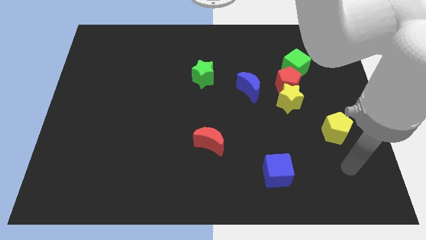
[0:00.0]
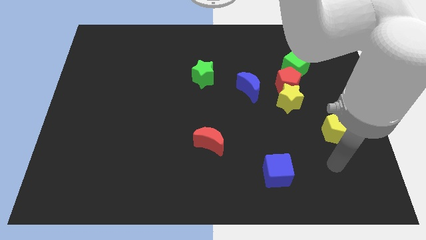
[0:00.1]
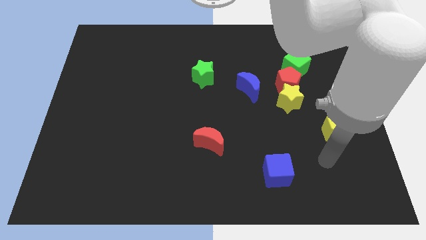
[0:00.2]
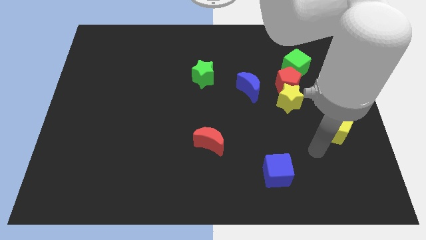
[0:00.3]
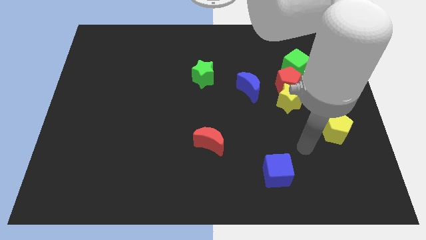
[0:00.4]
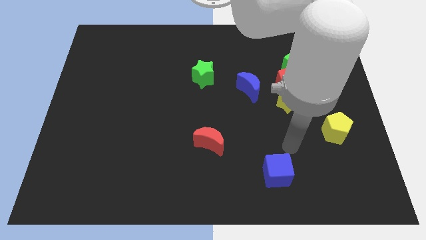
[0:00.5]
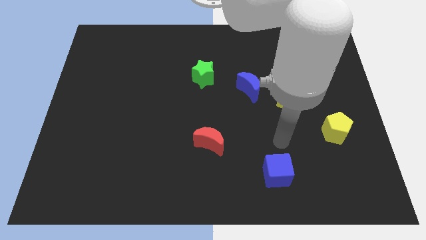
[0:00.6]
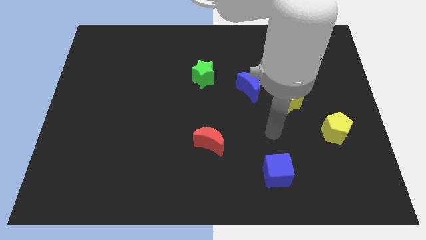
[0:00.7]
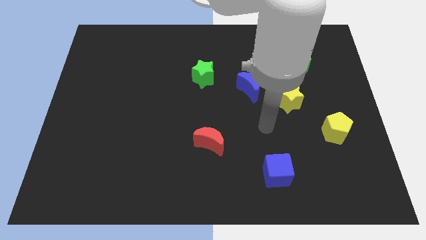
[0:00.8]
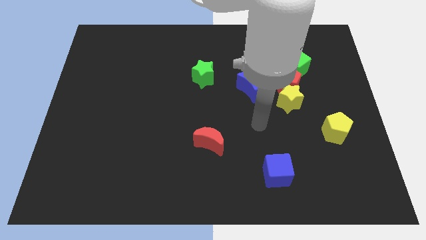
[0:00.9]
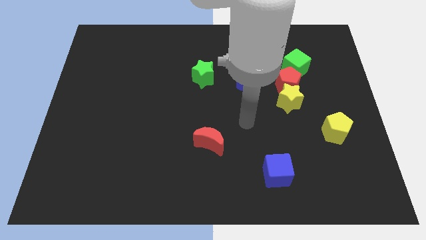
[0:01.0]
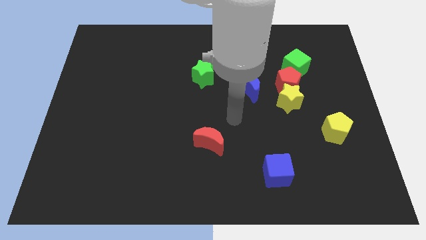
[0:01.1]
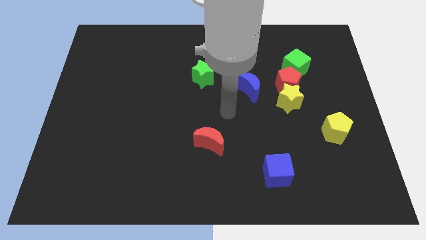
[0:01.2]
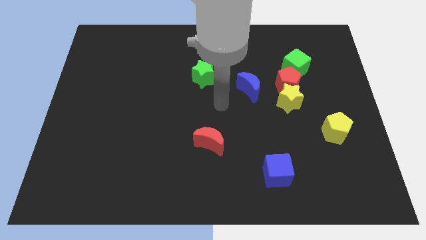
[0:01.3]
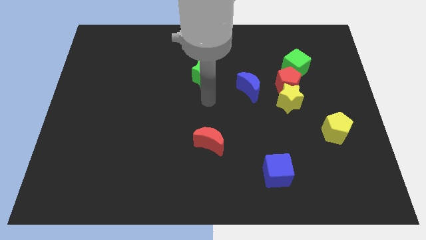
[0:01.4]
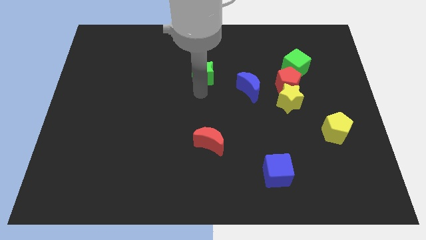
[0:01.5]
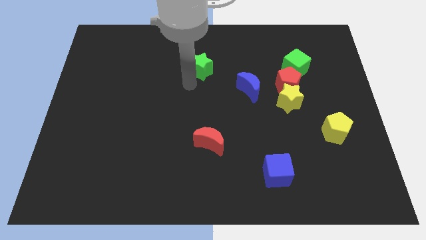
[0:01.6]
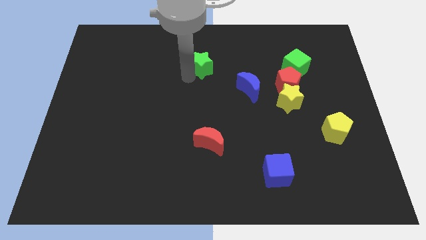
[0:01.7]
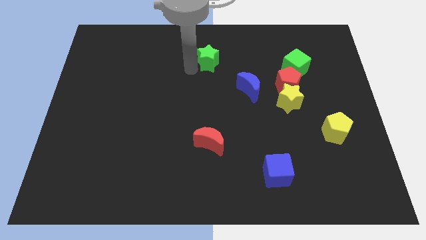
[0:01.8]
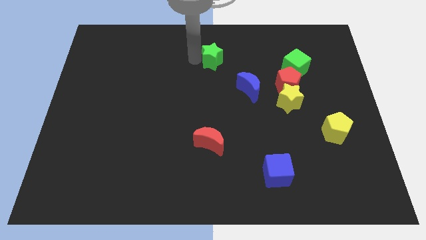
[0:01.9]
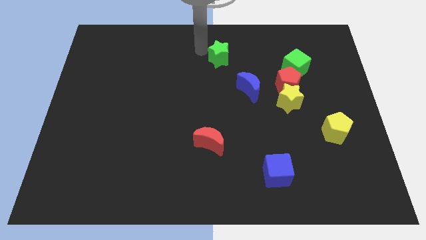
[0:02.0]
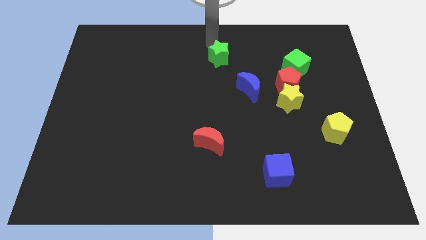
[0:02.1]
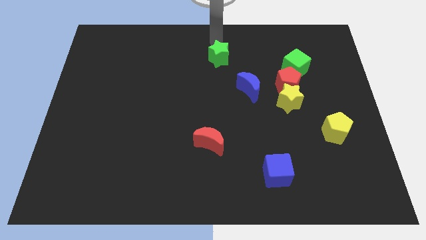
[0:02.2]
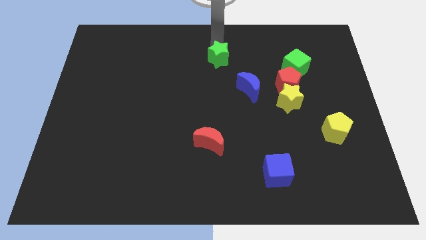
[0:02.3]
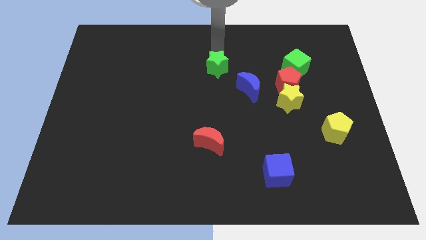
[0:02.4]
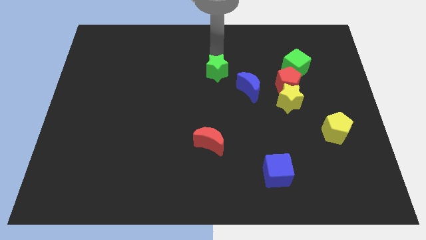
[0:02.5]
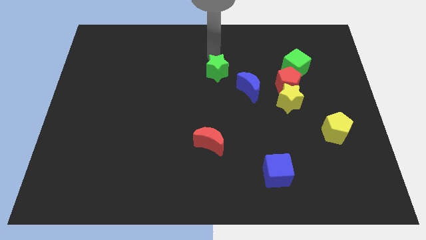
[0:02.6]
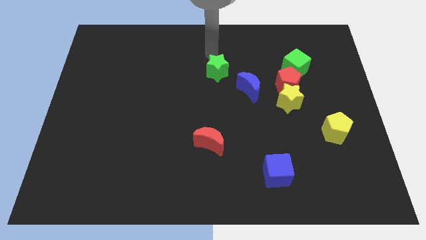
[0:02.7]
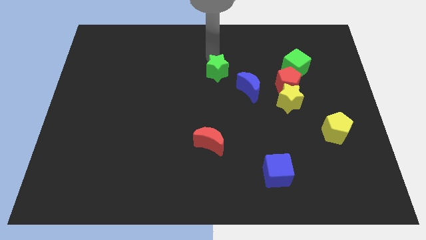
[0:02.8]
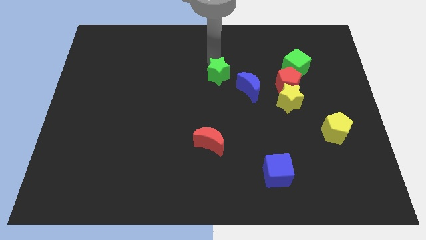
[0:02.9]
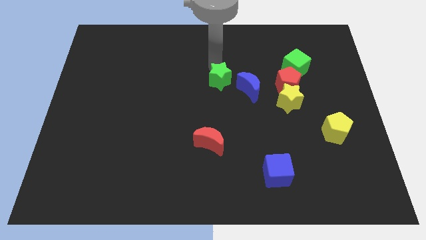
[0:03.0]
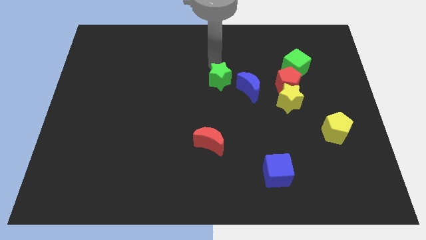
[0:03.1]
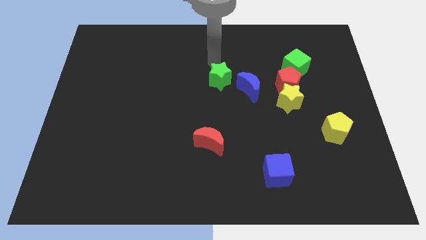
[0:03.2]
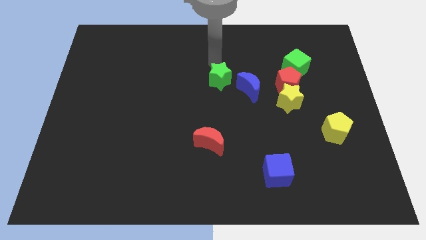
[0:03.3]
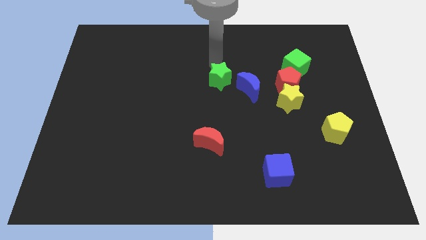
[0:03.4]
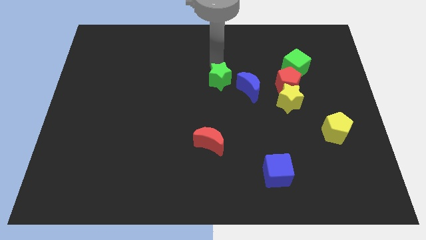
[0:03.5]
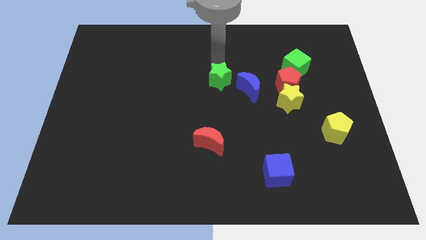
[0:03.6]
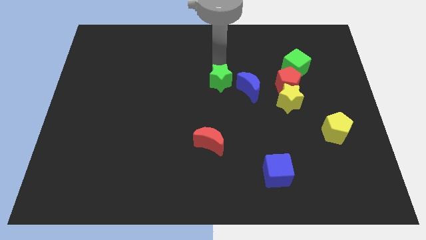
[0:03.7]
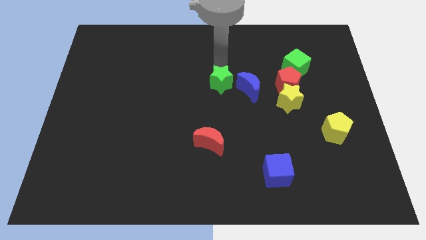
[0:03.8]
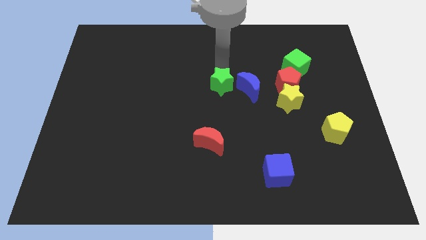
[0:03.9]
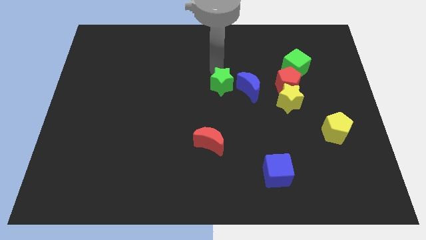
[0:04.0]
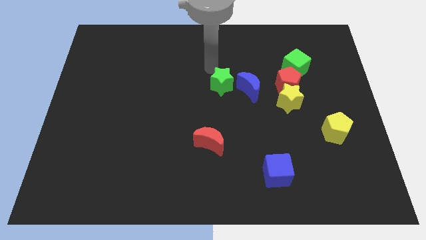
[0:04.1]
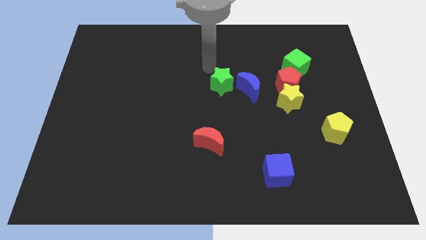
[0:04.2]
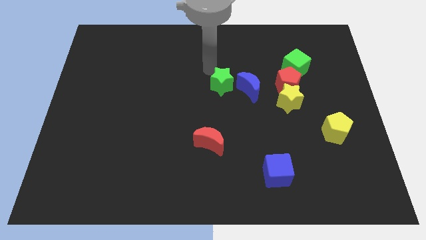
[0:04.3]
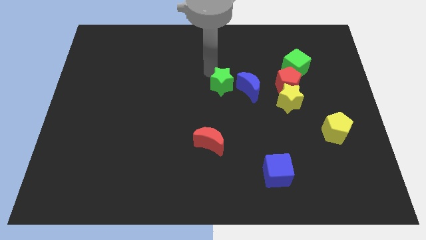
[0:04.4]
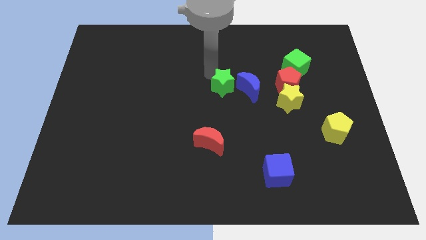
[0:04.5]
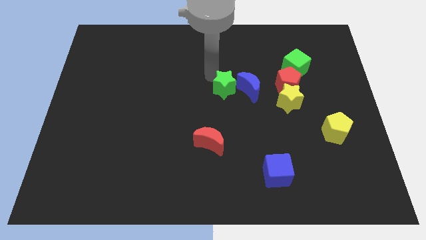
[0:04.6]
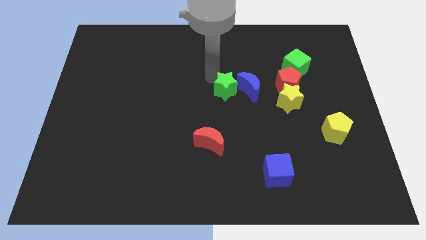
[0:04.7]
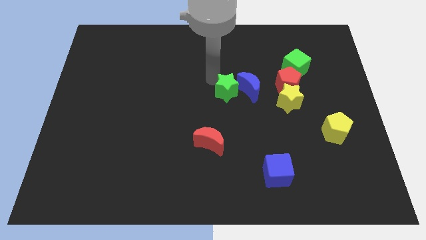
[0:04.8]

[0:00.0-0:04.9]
move the green star slightly diagonally downwards and to the right

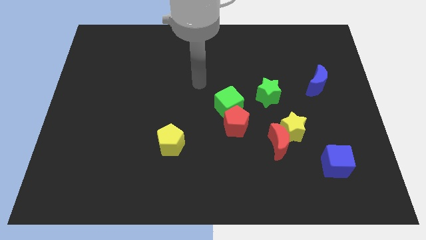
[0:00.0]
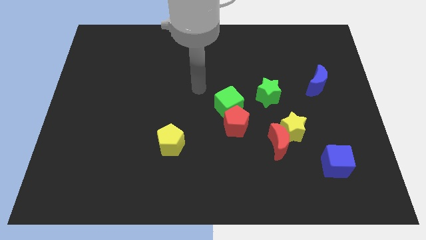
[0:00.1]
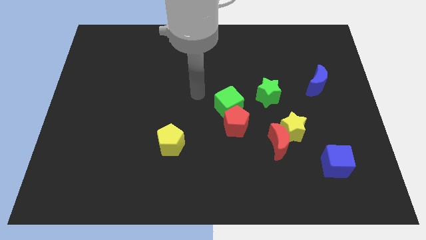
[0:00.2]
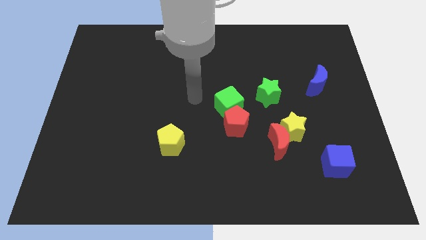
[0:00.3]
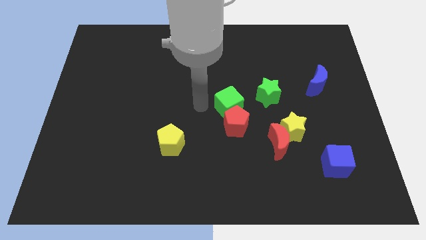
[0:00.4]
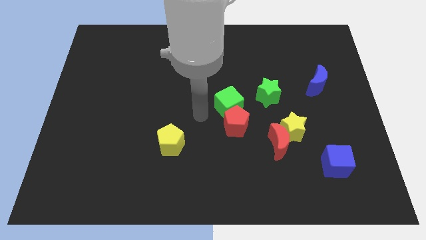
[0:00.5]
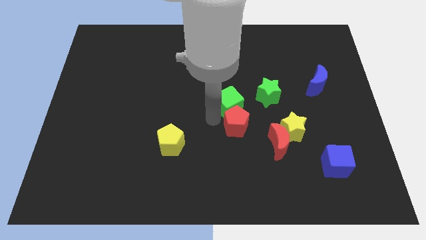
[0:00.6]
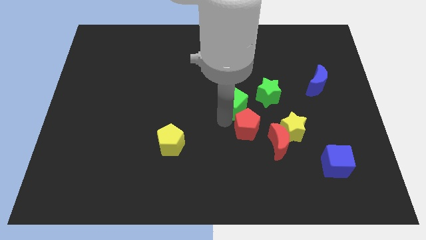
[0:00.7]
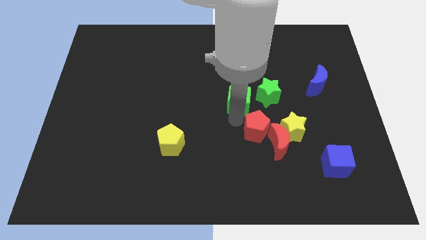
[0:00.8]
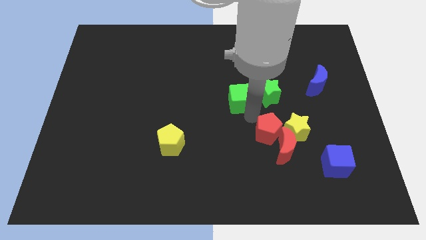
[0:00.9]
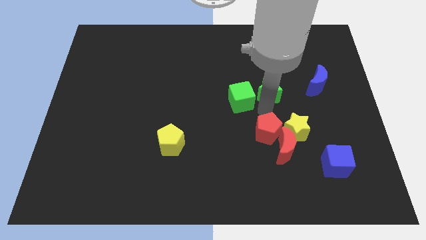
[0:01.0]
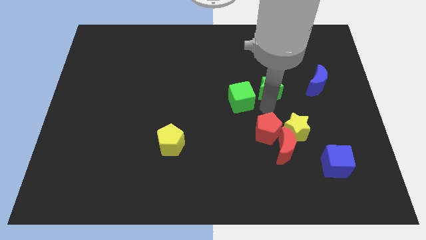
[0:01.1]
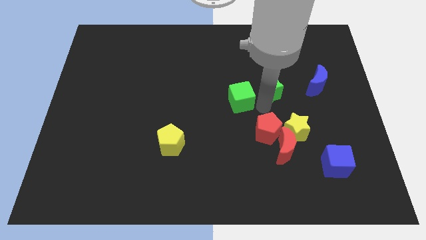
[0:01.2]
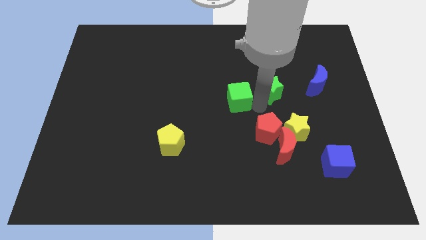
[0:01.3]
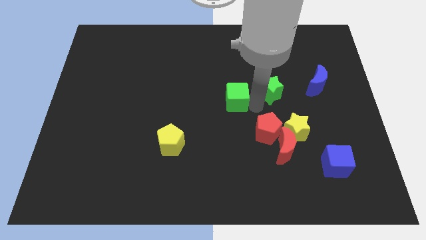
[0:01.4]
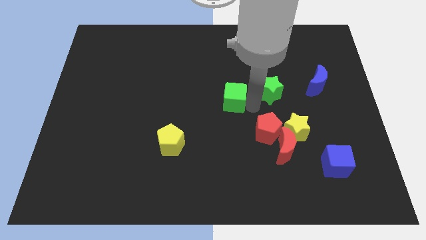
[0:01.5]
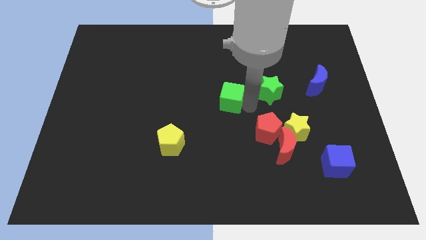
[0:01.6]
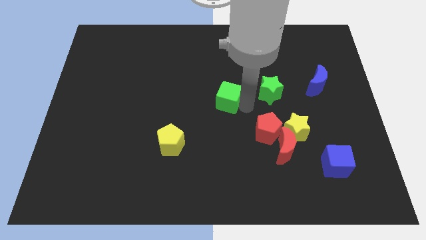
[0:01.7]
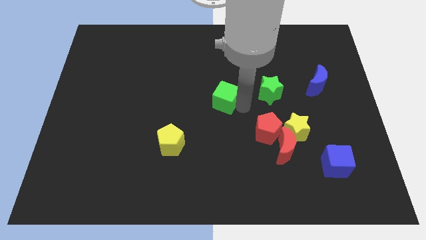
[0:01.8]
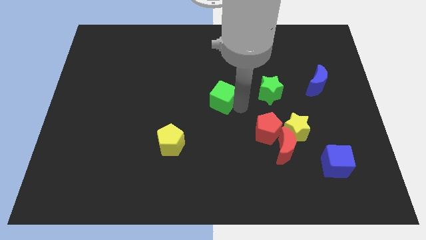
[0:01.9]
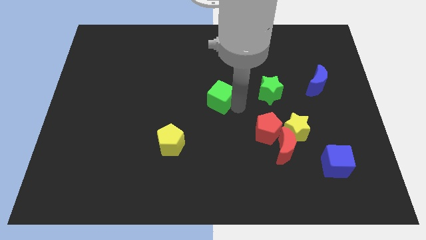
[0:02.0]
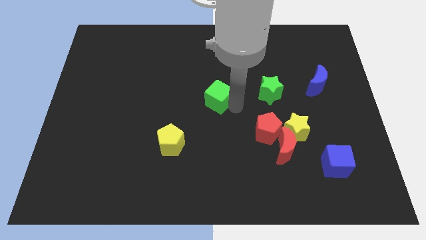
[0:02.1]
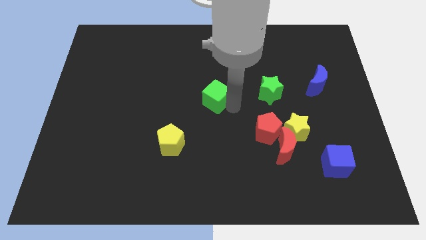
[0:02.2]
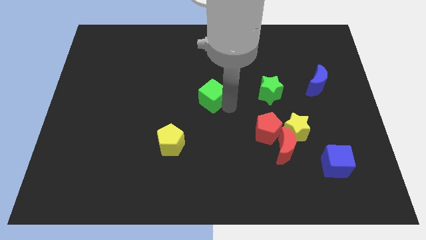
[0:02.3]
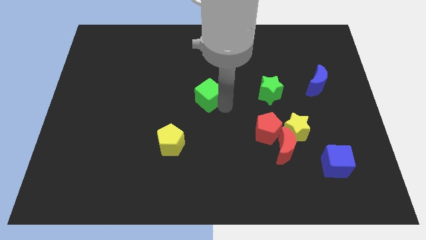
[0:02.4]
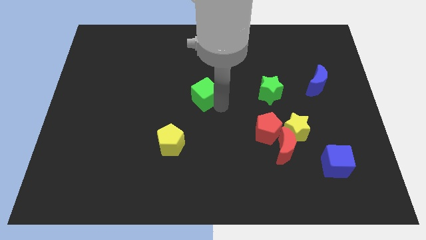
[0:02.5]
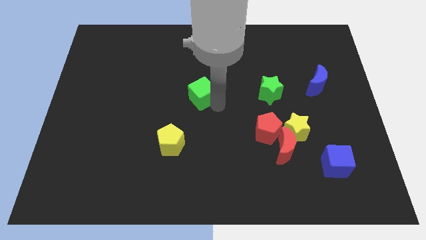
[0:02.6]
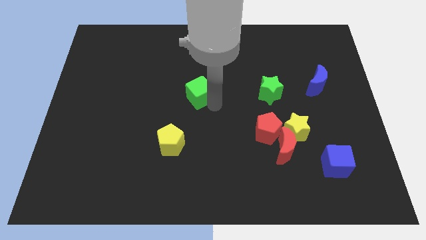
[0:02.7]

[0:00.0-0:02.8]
slide the green cube diagonally up and left a little bit

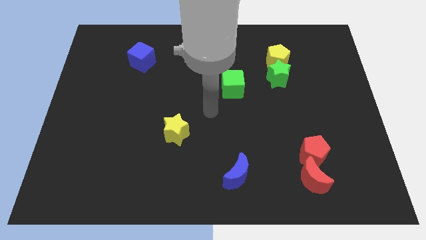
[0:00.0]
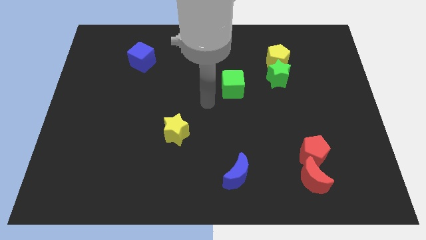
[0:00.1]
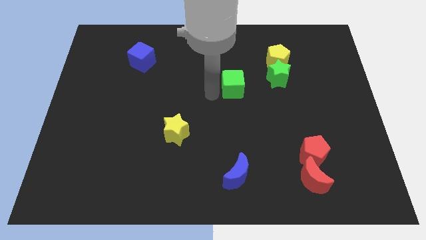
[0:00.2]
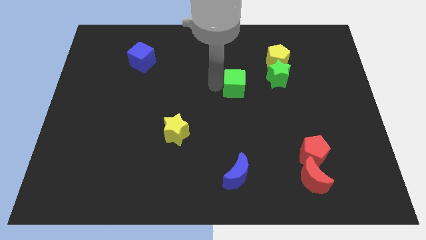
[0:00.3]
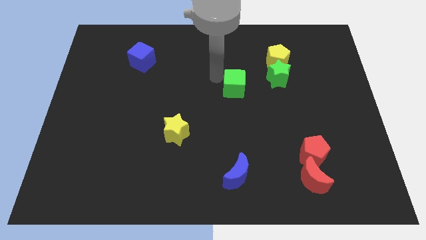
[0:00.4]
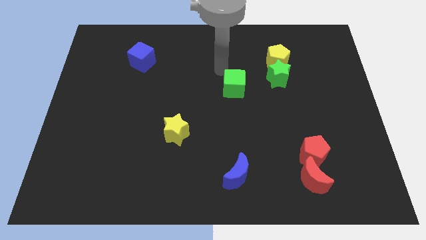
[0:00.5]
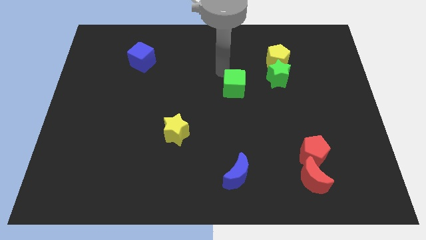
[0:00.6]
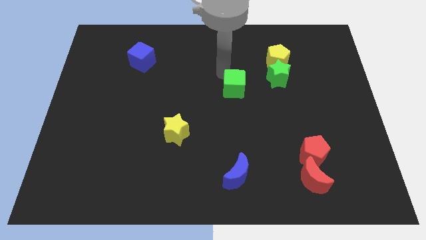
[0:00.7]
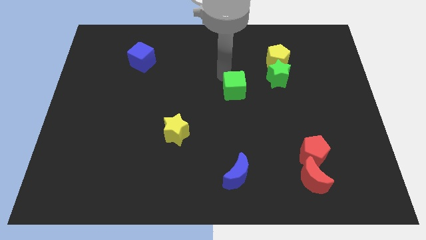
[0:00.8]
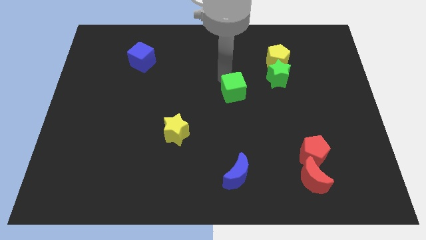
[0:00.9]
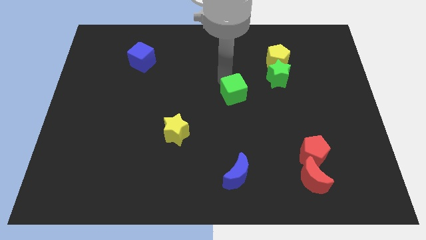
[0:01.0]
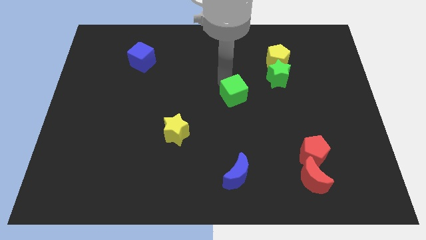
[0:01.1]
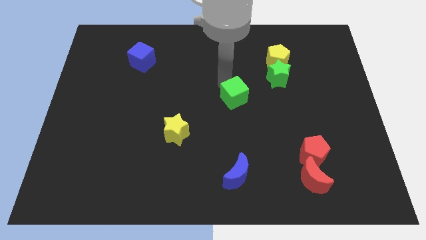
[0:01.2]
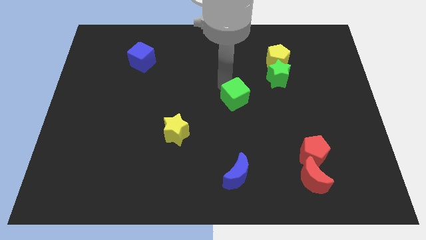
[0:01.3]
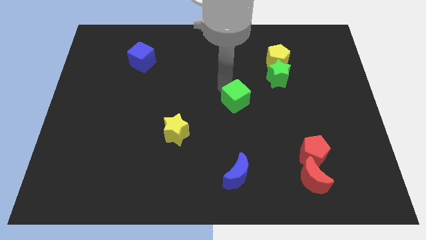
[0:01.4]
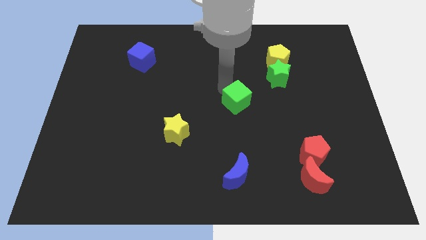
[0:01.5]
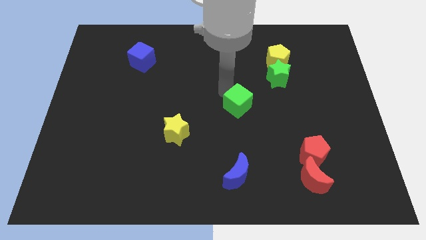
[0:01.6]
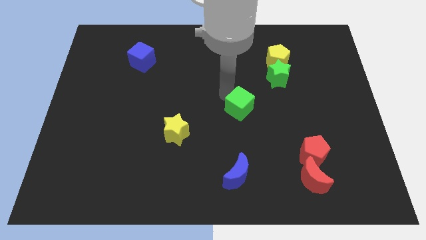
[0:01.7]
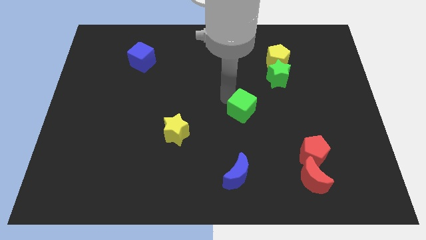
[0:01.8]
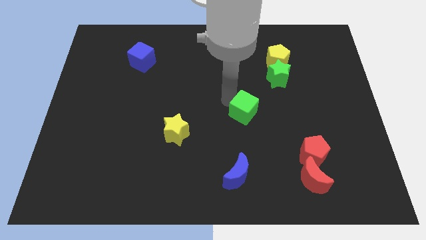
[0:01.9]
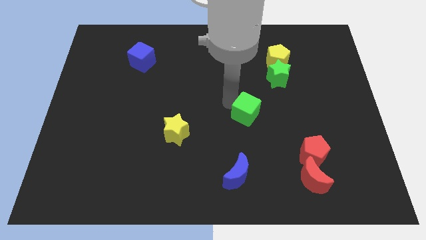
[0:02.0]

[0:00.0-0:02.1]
push the green cube downwards and then to the right a little
